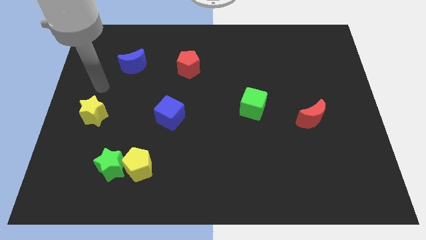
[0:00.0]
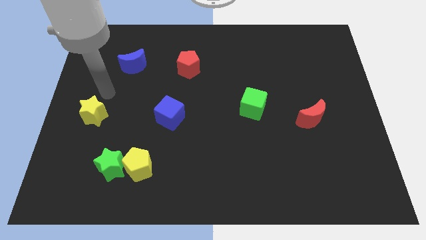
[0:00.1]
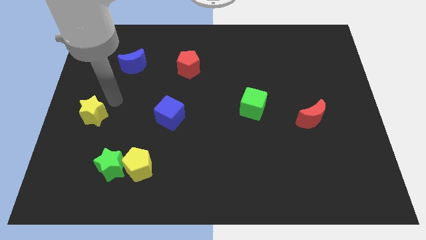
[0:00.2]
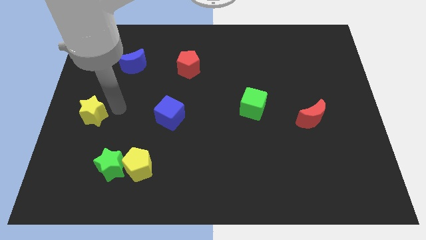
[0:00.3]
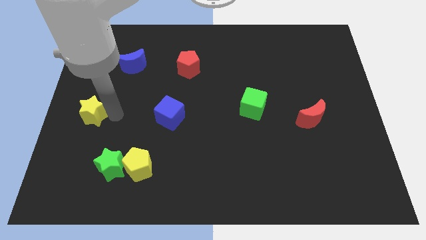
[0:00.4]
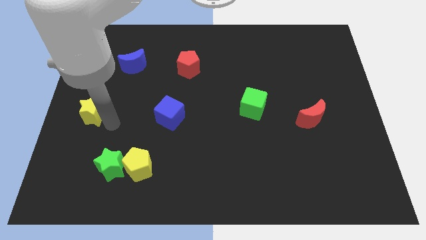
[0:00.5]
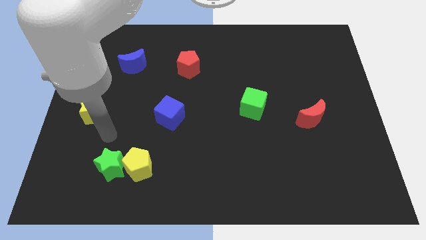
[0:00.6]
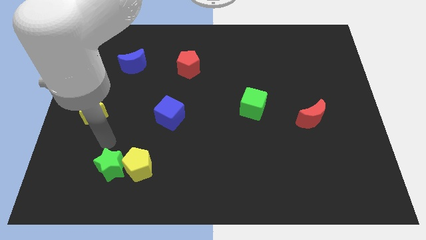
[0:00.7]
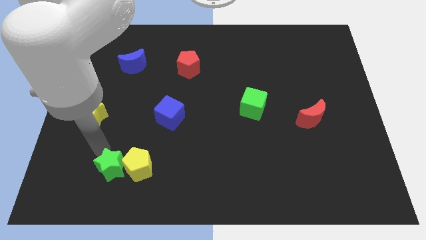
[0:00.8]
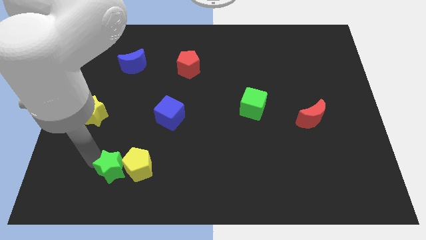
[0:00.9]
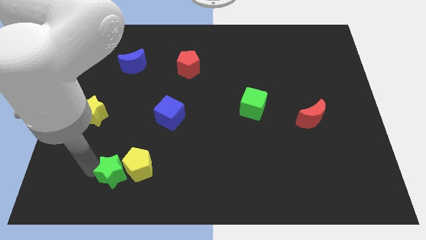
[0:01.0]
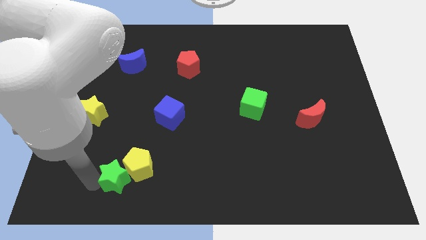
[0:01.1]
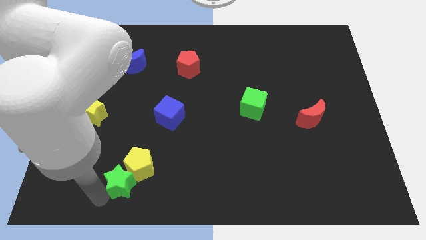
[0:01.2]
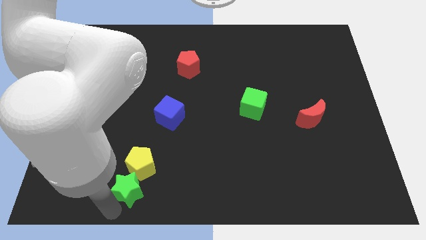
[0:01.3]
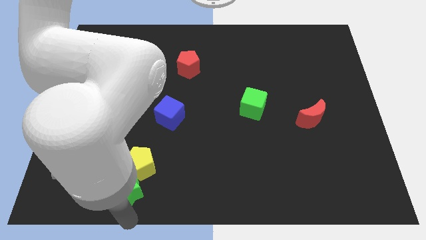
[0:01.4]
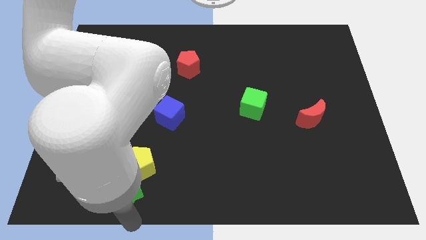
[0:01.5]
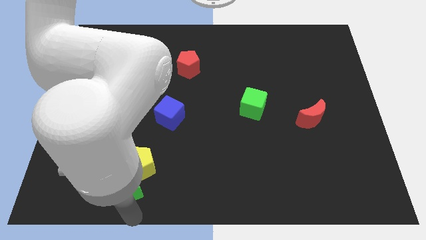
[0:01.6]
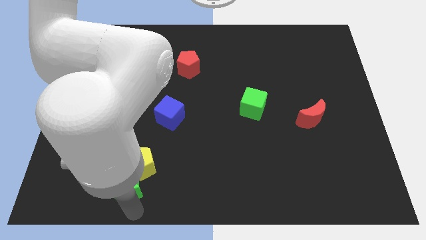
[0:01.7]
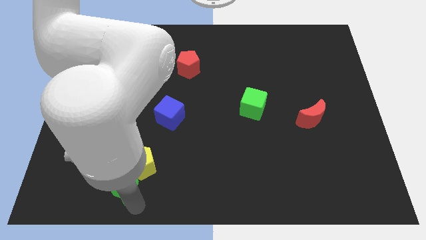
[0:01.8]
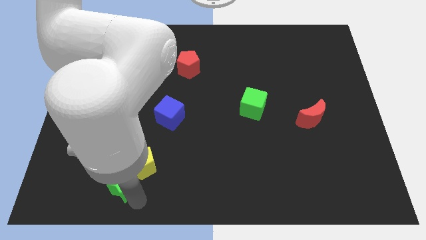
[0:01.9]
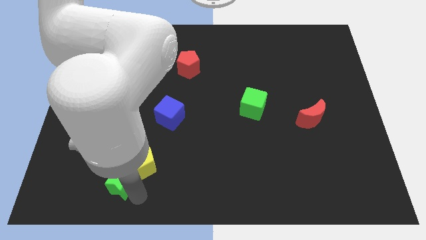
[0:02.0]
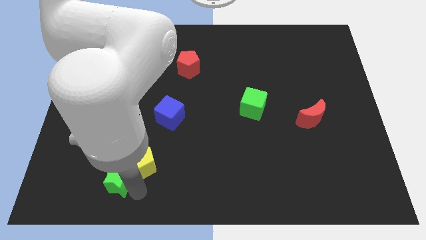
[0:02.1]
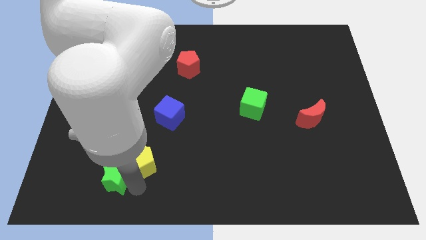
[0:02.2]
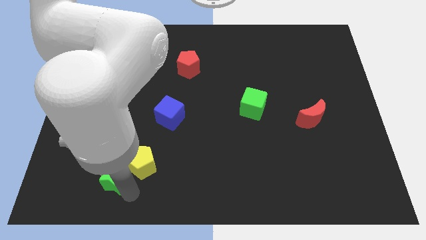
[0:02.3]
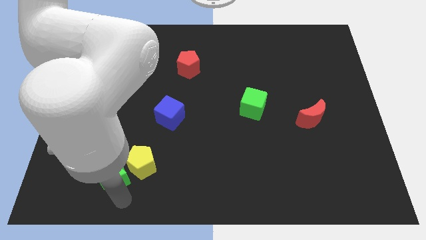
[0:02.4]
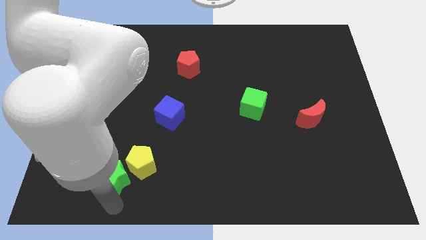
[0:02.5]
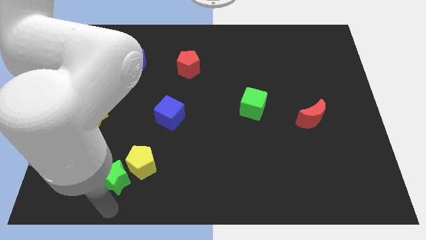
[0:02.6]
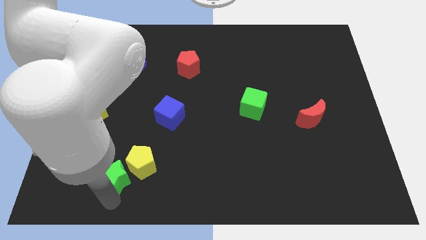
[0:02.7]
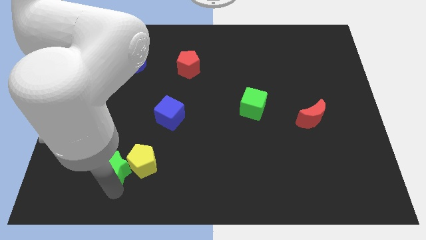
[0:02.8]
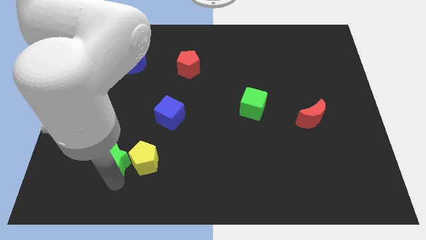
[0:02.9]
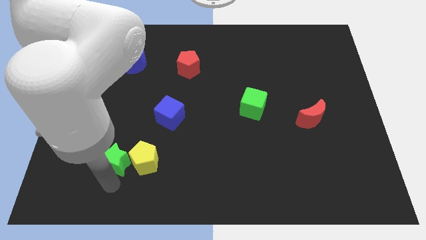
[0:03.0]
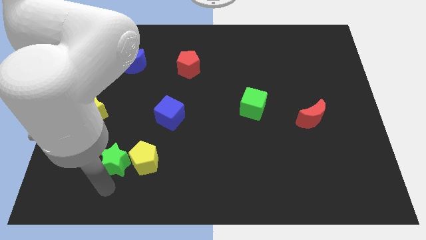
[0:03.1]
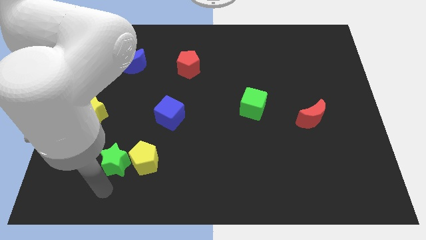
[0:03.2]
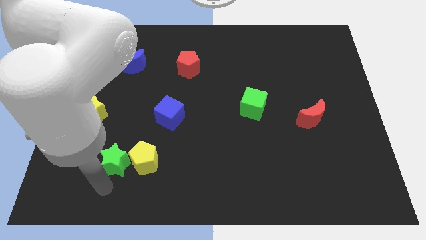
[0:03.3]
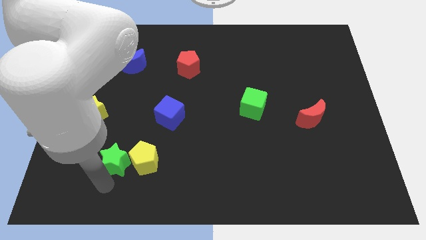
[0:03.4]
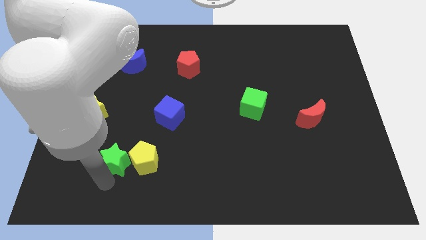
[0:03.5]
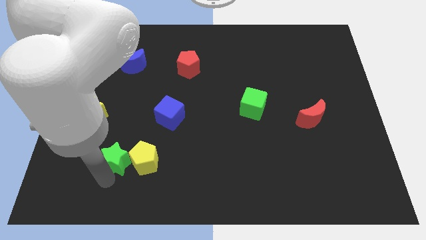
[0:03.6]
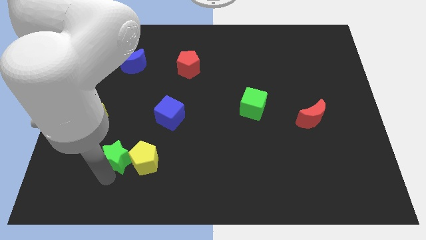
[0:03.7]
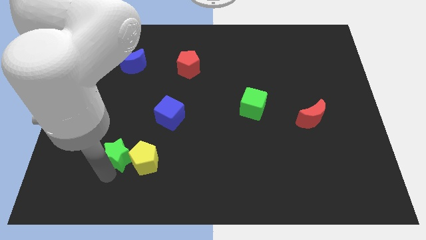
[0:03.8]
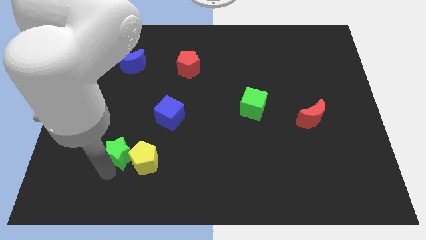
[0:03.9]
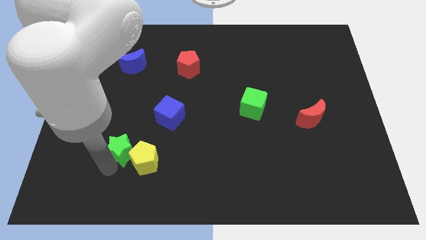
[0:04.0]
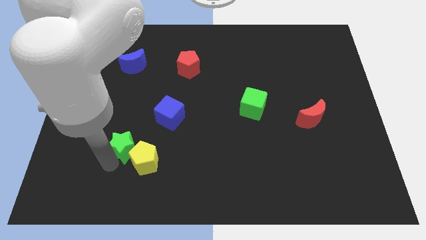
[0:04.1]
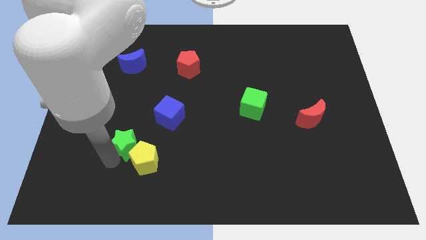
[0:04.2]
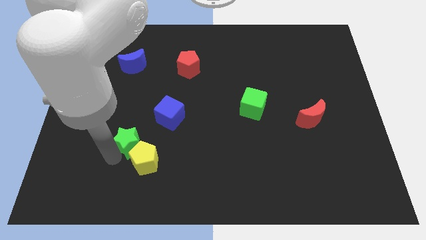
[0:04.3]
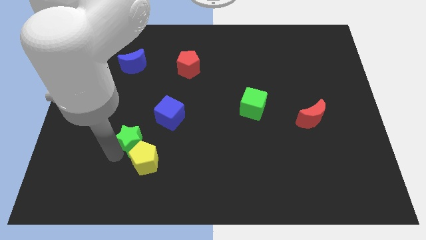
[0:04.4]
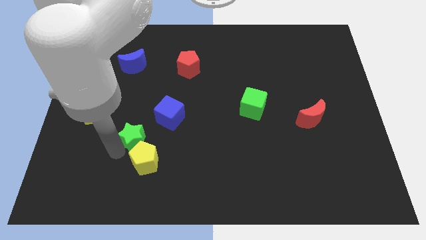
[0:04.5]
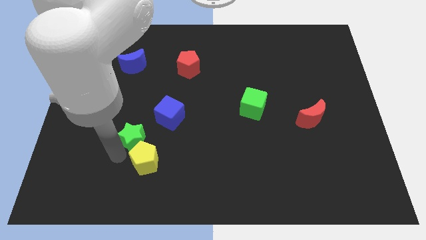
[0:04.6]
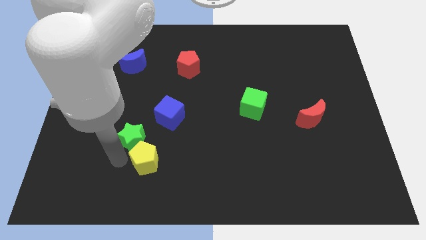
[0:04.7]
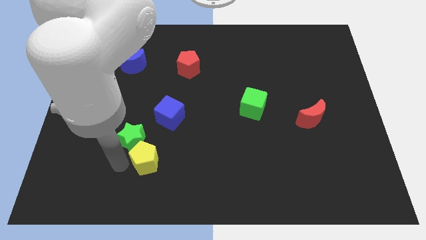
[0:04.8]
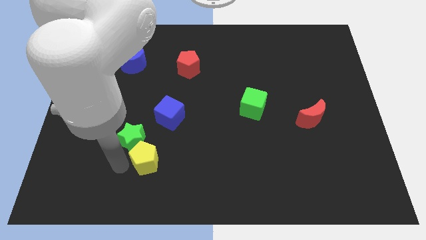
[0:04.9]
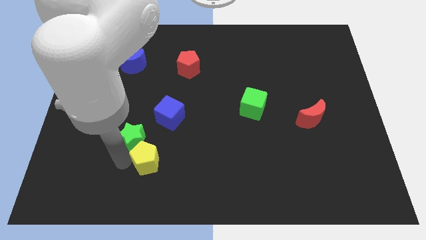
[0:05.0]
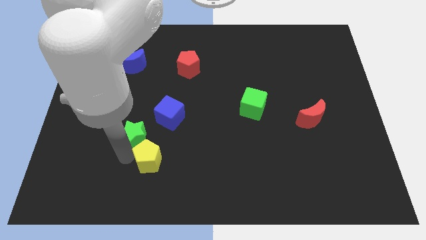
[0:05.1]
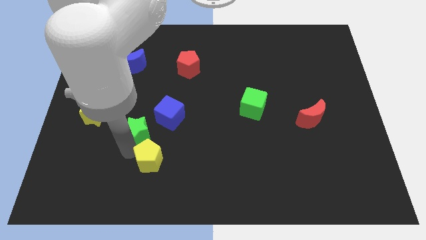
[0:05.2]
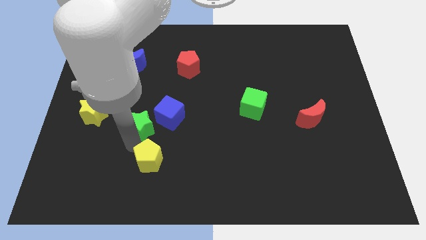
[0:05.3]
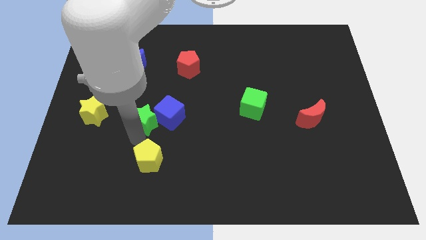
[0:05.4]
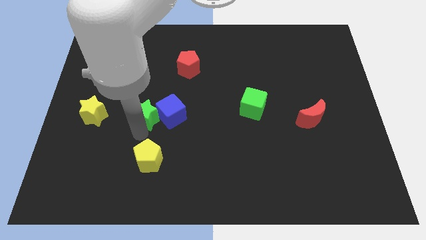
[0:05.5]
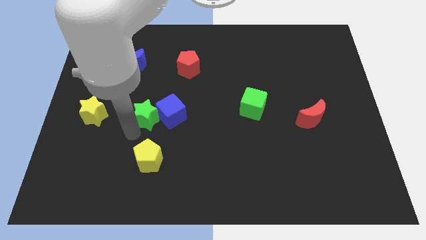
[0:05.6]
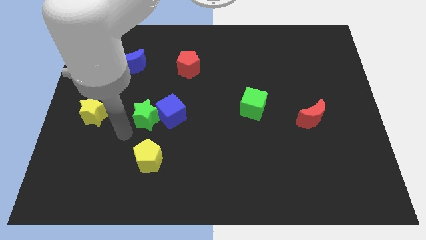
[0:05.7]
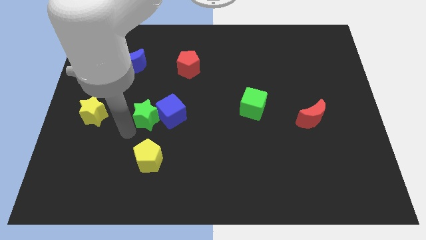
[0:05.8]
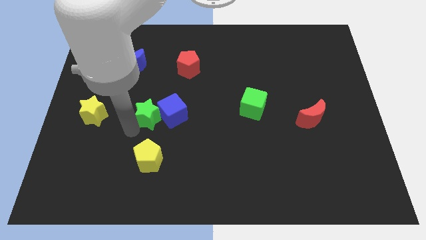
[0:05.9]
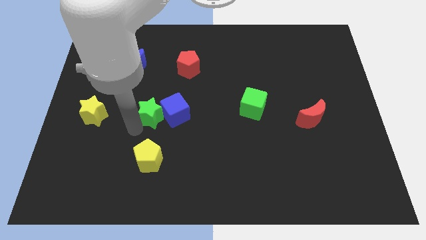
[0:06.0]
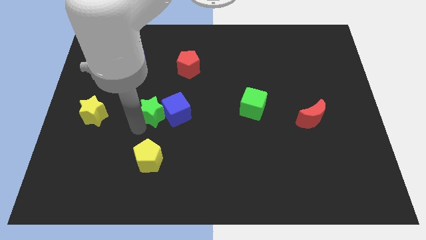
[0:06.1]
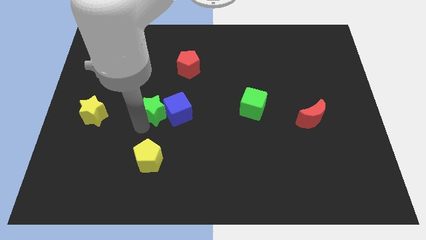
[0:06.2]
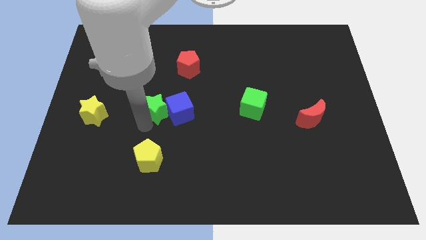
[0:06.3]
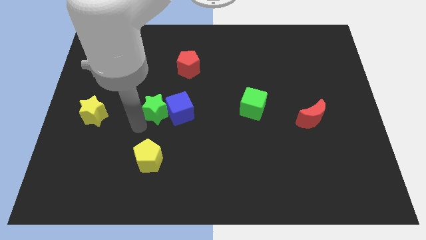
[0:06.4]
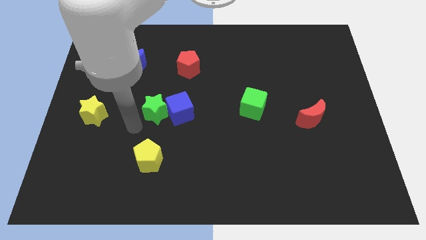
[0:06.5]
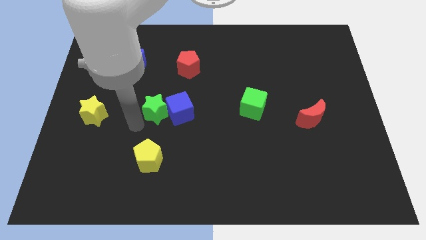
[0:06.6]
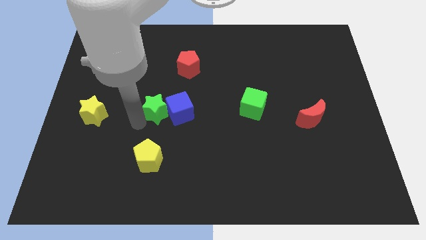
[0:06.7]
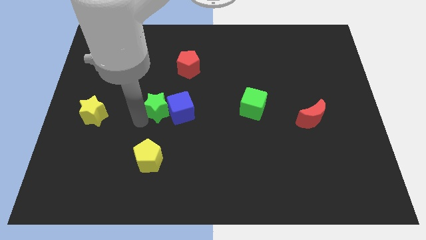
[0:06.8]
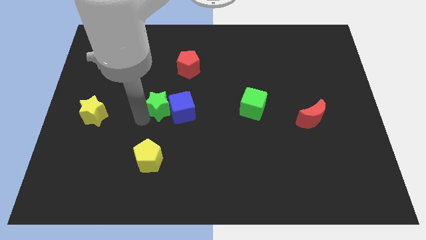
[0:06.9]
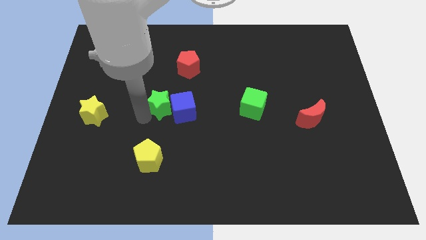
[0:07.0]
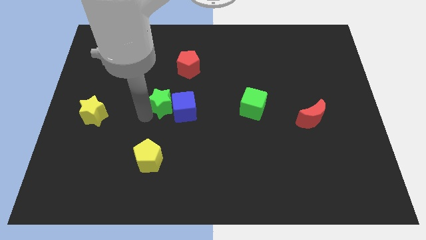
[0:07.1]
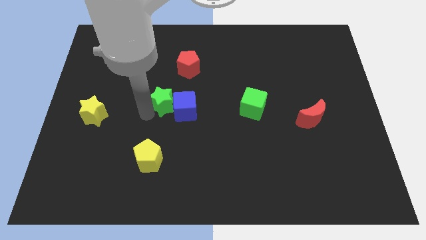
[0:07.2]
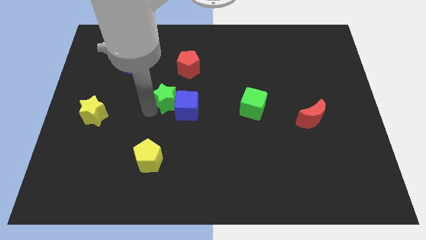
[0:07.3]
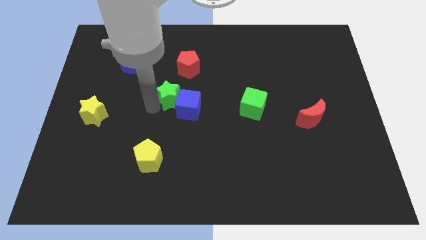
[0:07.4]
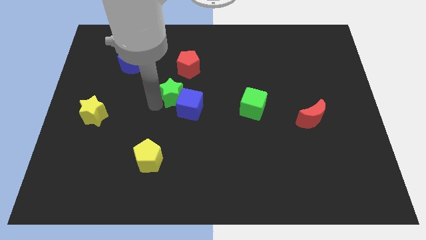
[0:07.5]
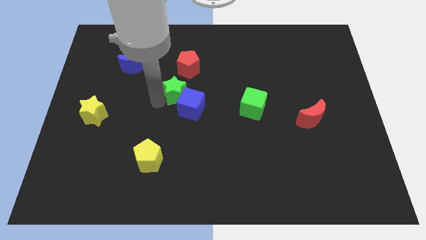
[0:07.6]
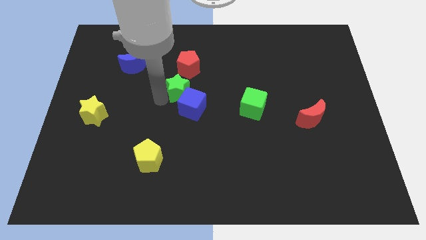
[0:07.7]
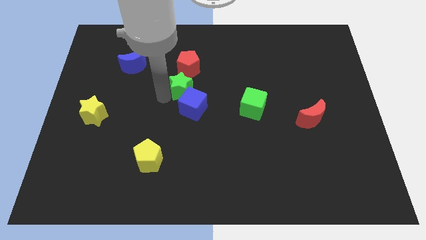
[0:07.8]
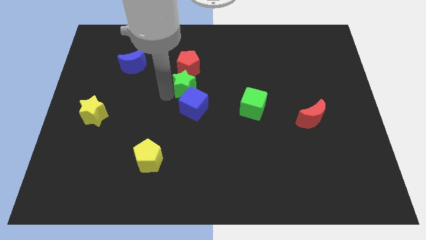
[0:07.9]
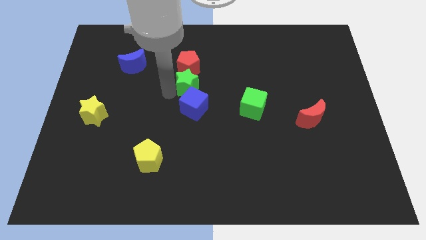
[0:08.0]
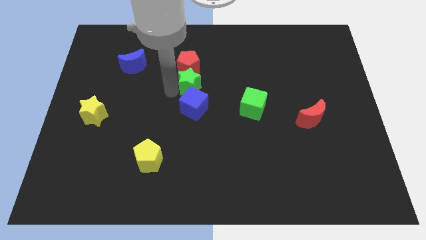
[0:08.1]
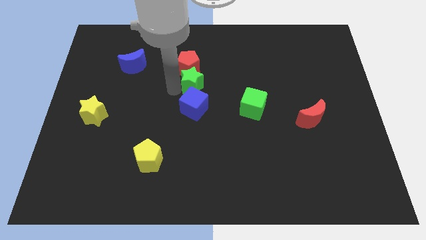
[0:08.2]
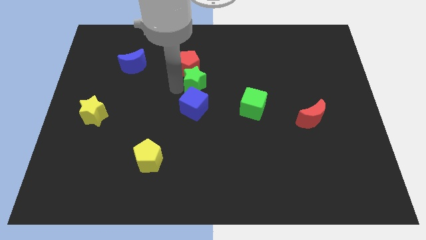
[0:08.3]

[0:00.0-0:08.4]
slide the green star diagonally up and to the right of the blue cube
